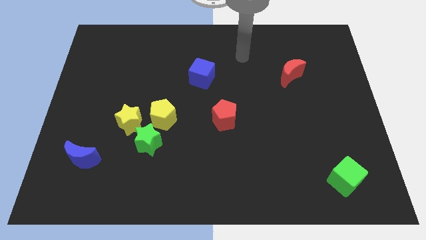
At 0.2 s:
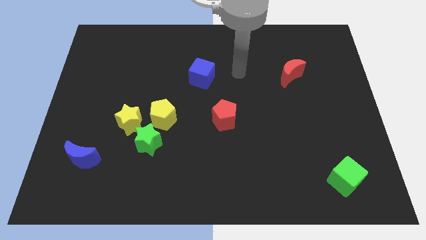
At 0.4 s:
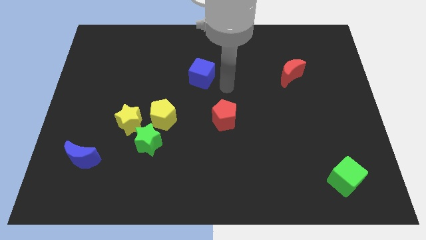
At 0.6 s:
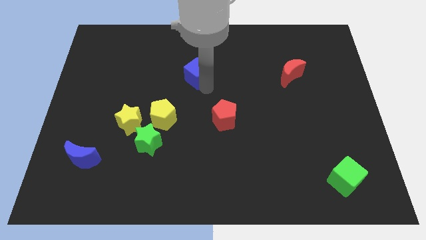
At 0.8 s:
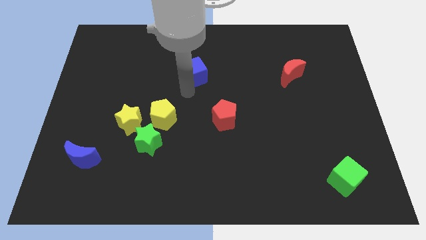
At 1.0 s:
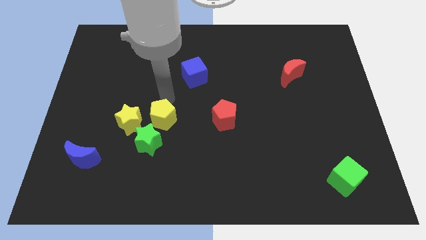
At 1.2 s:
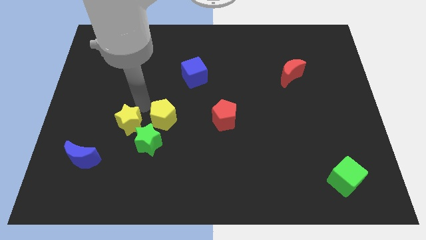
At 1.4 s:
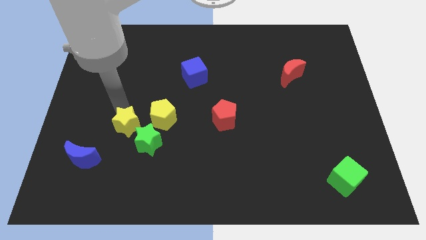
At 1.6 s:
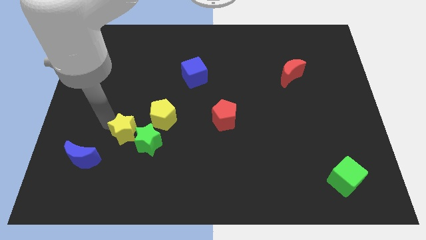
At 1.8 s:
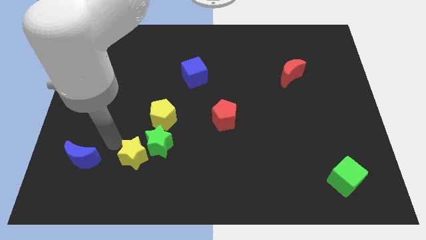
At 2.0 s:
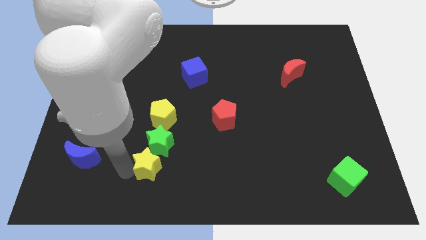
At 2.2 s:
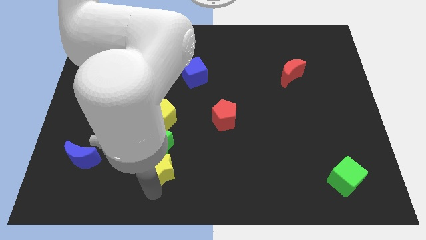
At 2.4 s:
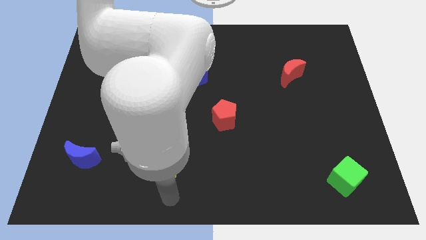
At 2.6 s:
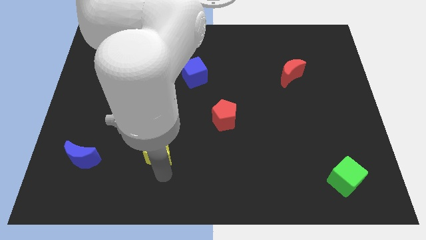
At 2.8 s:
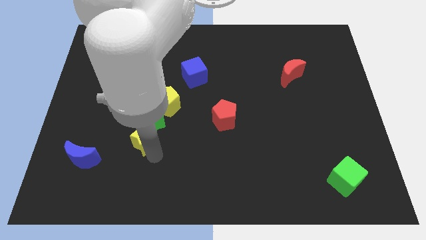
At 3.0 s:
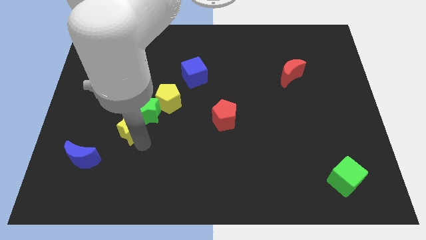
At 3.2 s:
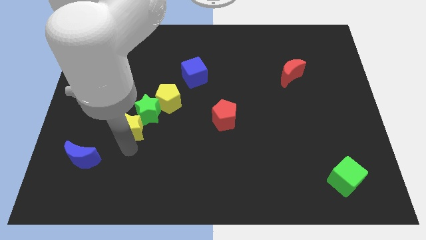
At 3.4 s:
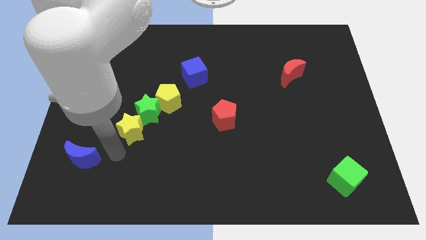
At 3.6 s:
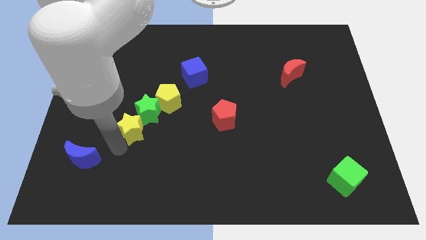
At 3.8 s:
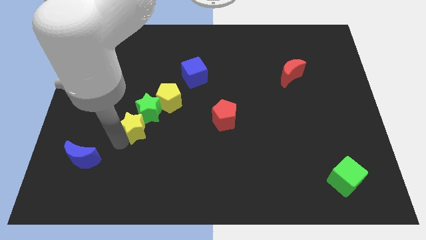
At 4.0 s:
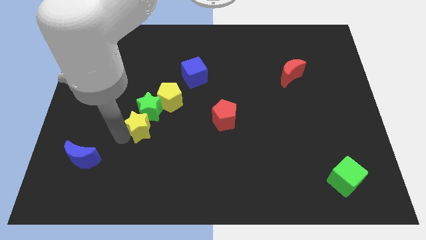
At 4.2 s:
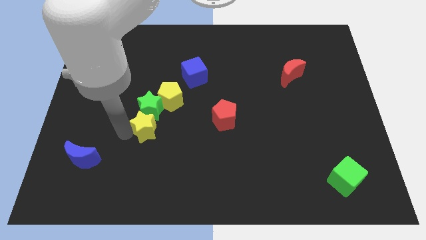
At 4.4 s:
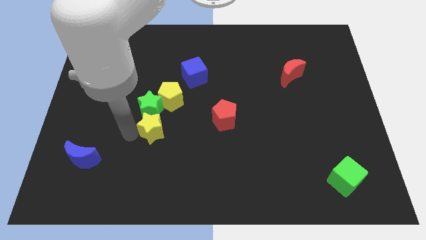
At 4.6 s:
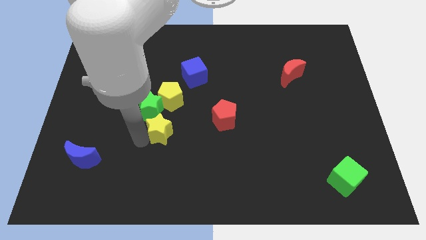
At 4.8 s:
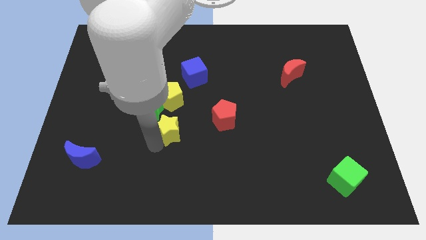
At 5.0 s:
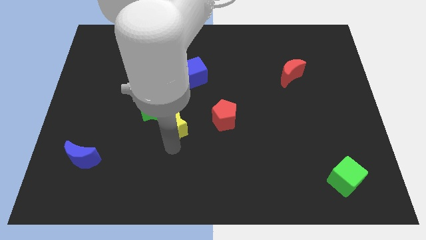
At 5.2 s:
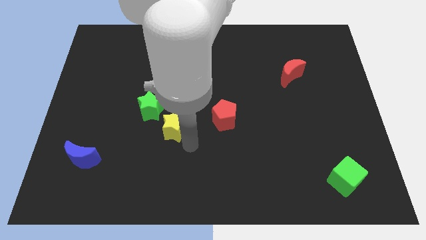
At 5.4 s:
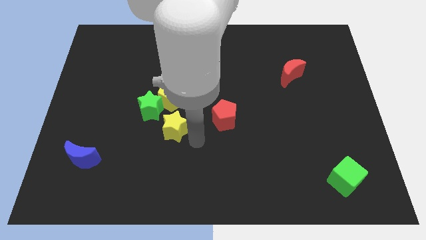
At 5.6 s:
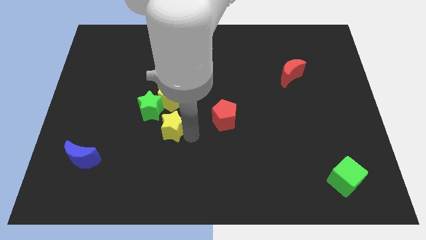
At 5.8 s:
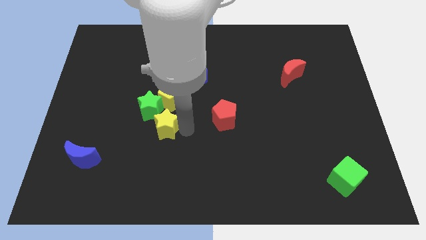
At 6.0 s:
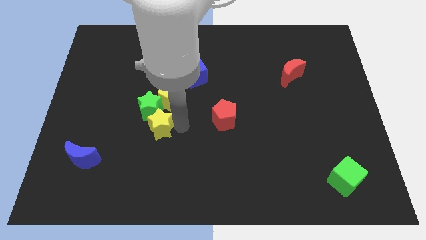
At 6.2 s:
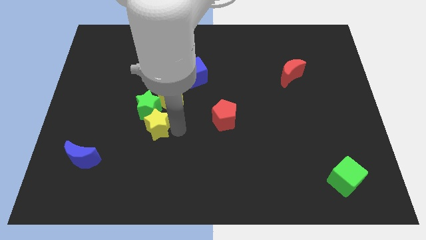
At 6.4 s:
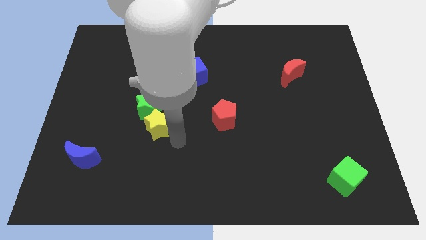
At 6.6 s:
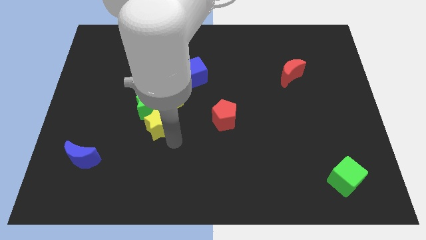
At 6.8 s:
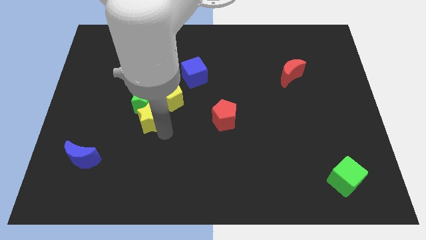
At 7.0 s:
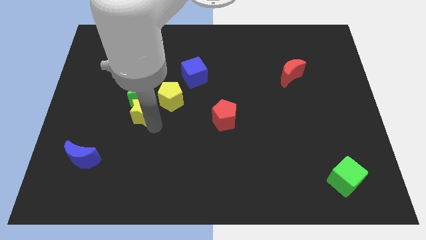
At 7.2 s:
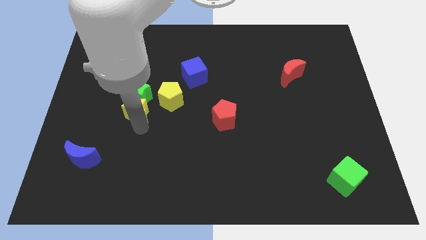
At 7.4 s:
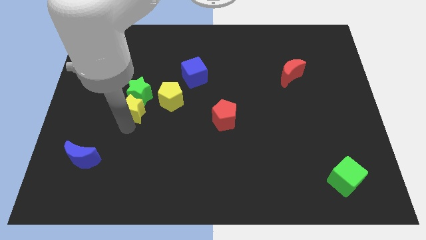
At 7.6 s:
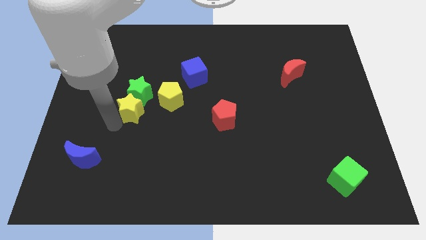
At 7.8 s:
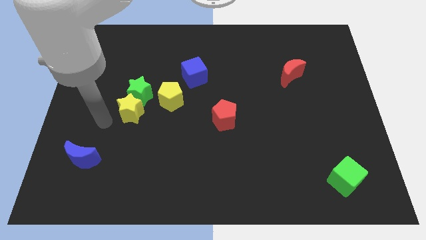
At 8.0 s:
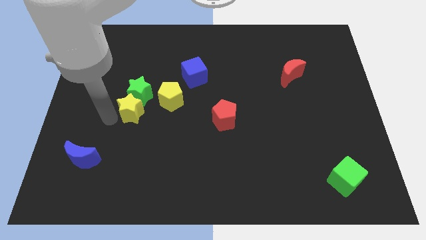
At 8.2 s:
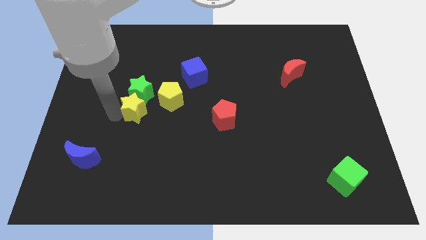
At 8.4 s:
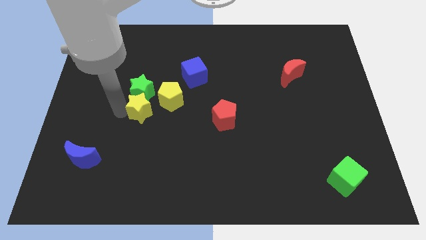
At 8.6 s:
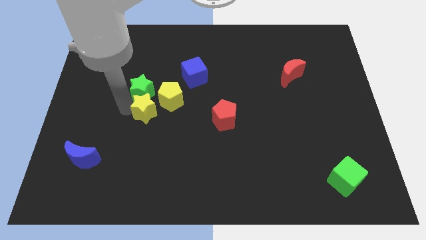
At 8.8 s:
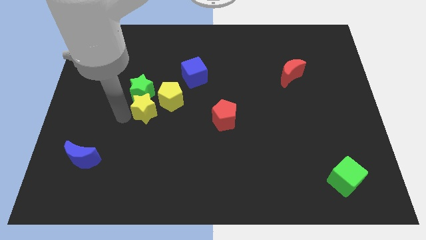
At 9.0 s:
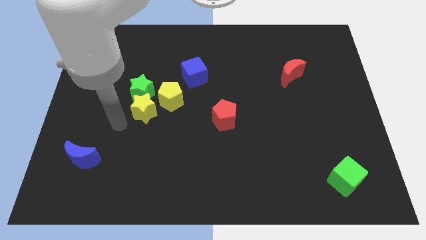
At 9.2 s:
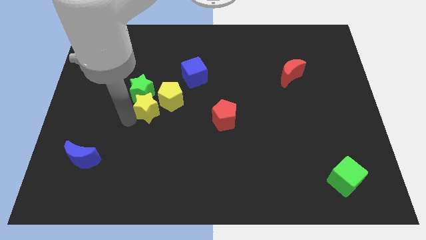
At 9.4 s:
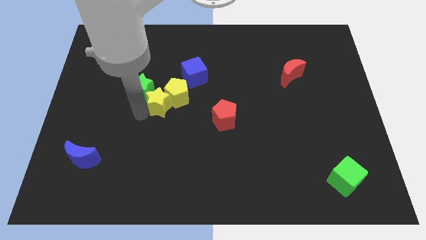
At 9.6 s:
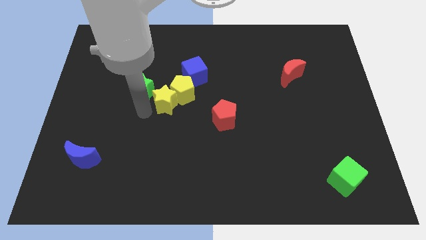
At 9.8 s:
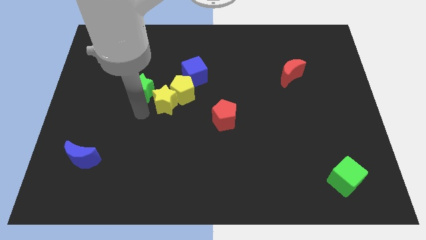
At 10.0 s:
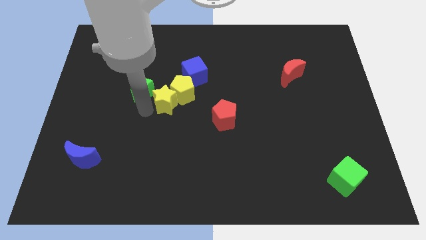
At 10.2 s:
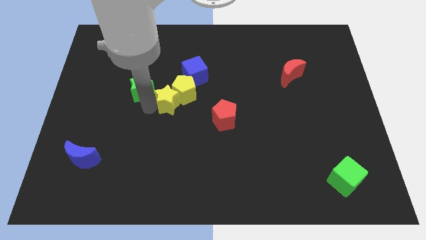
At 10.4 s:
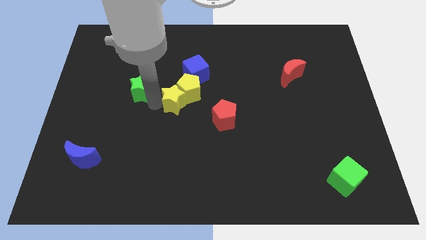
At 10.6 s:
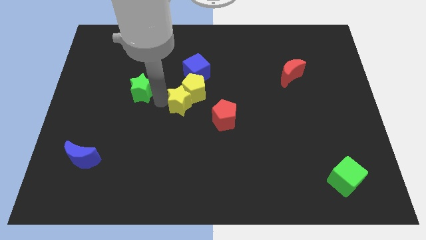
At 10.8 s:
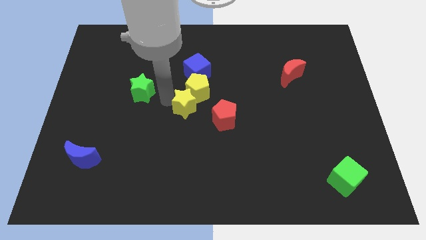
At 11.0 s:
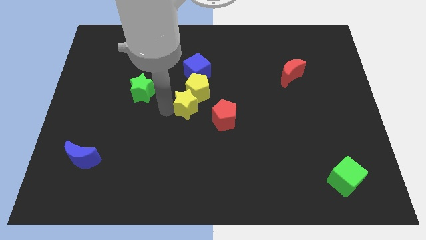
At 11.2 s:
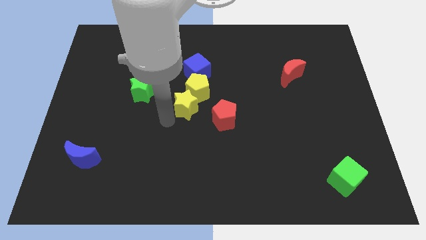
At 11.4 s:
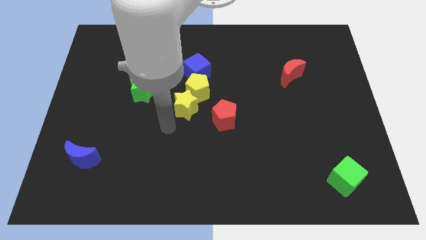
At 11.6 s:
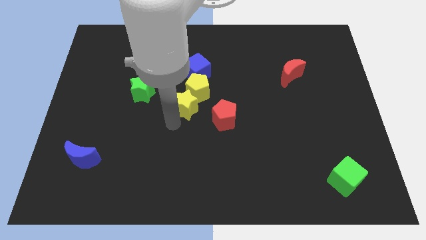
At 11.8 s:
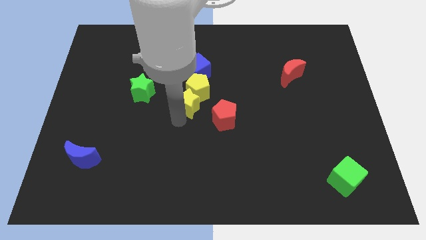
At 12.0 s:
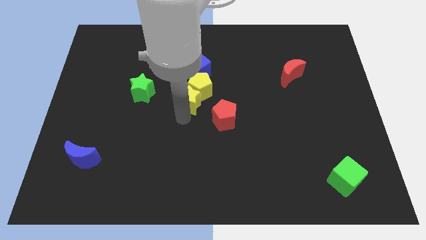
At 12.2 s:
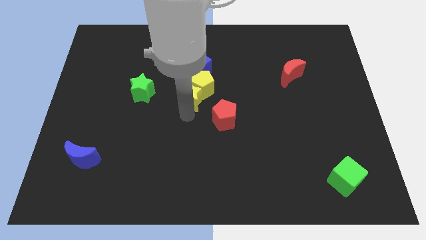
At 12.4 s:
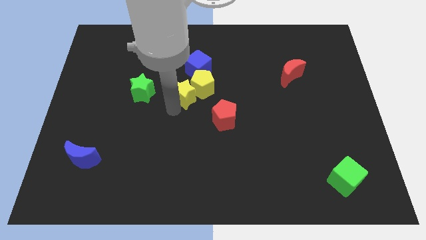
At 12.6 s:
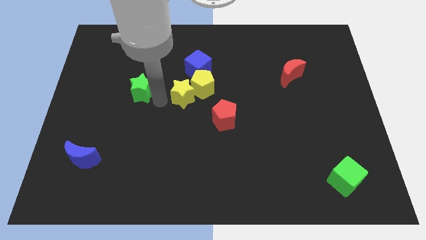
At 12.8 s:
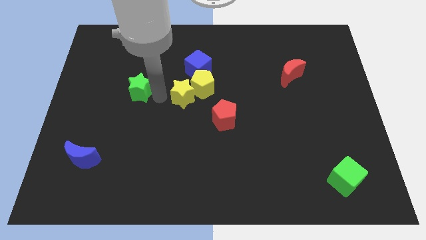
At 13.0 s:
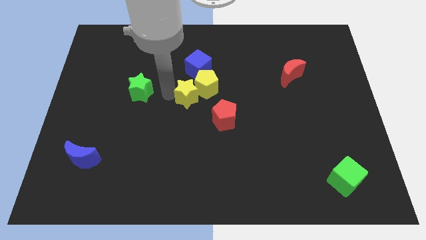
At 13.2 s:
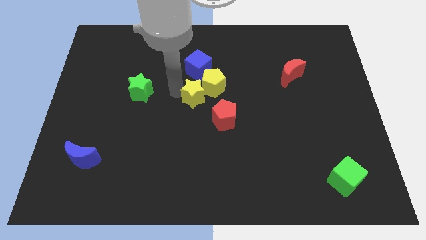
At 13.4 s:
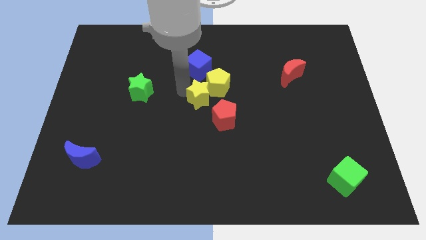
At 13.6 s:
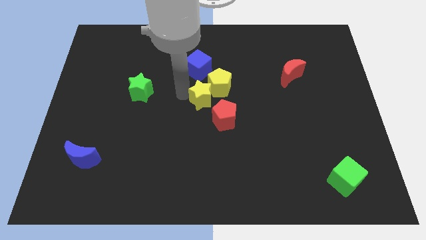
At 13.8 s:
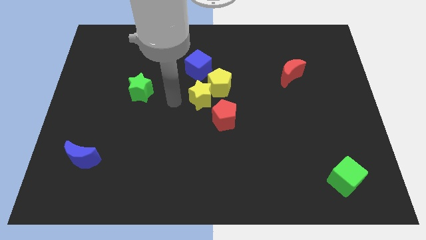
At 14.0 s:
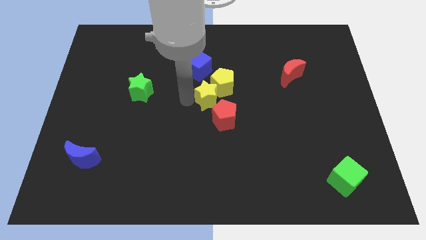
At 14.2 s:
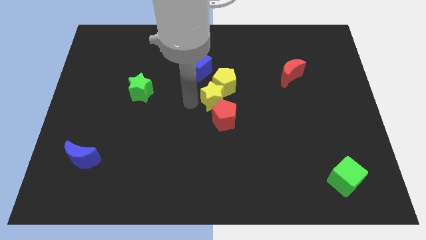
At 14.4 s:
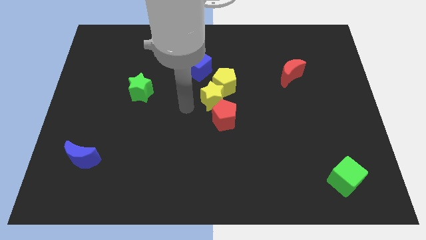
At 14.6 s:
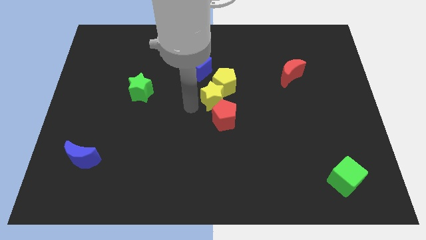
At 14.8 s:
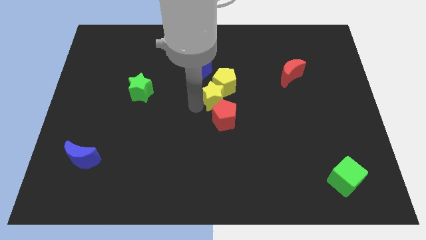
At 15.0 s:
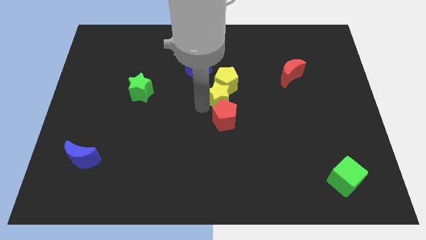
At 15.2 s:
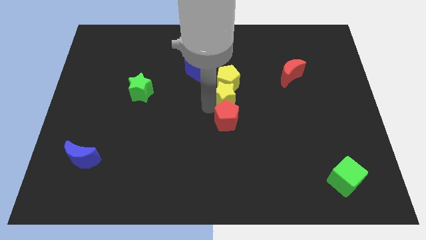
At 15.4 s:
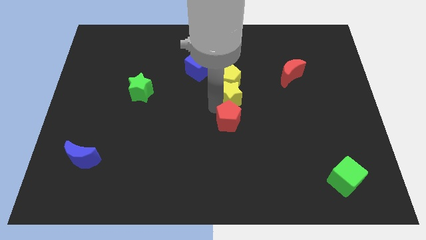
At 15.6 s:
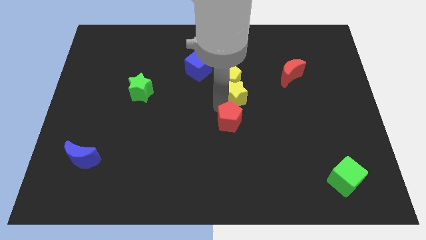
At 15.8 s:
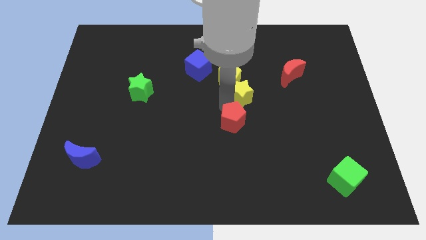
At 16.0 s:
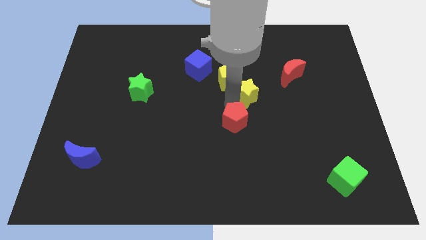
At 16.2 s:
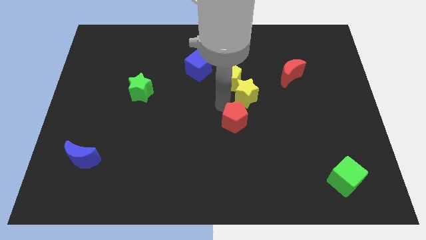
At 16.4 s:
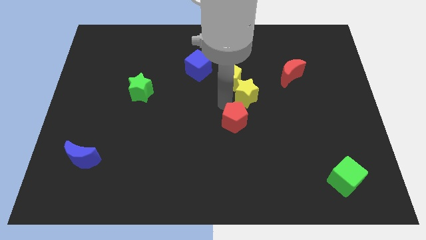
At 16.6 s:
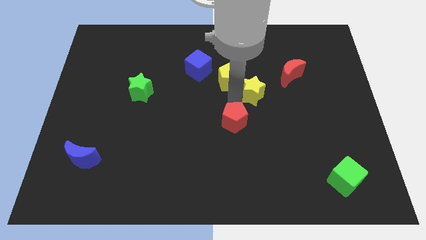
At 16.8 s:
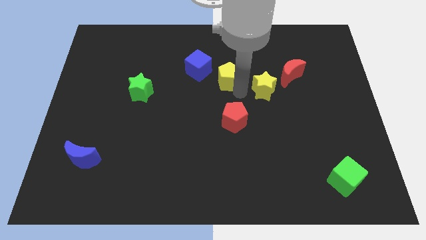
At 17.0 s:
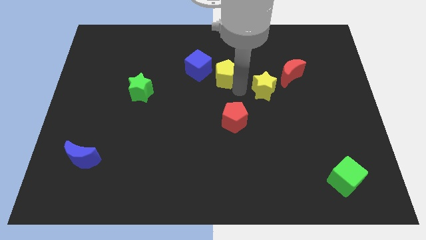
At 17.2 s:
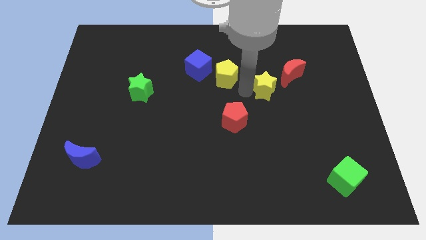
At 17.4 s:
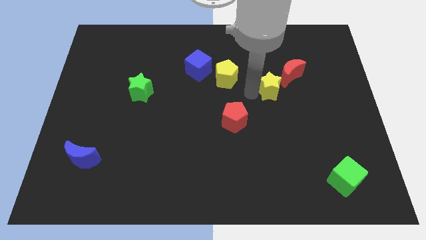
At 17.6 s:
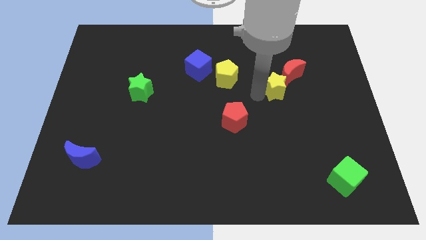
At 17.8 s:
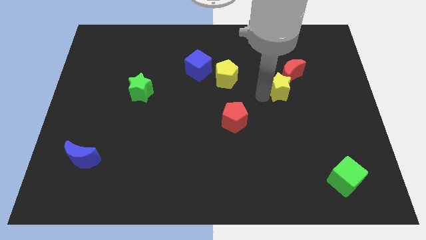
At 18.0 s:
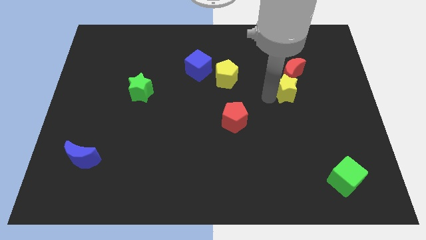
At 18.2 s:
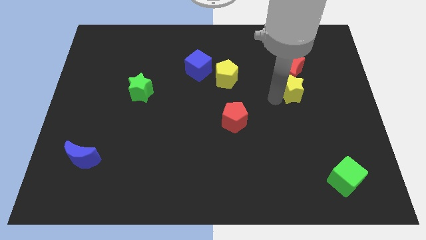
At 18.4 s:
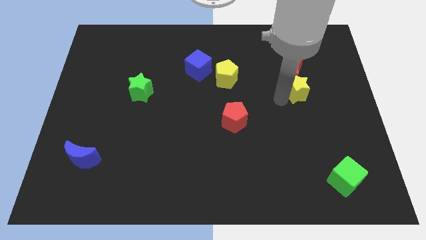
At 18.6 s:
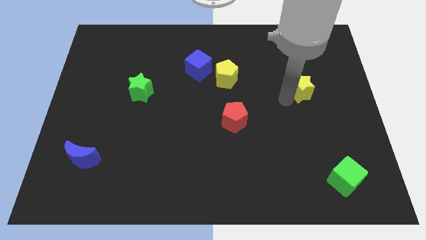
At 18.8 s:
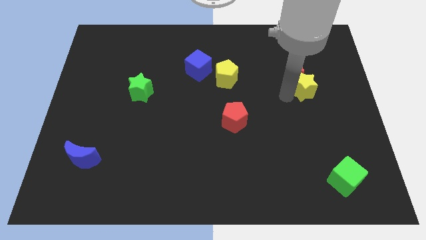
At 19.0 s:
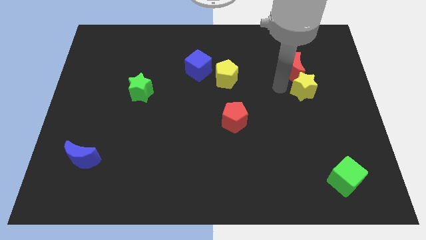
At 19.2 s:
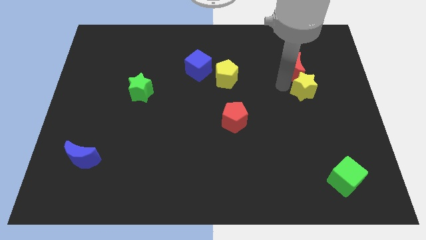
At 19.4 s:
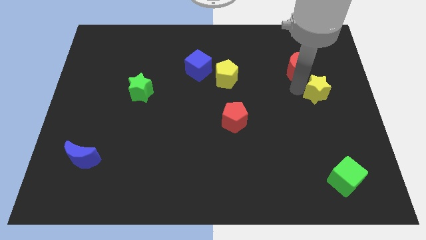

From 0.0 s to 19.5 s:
put the yellow star to the center right
